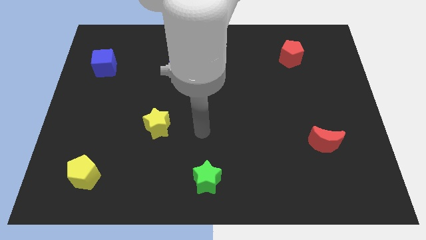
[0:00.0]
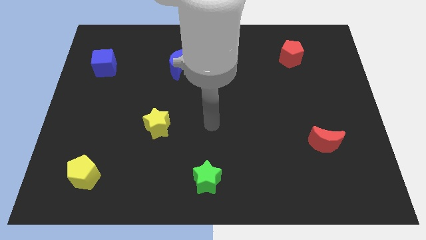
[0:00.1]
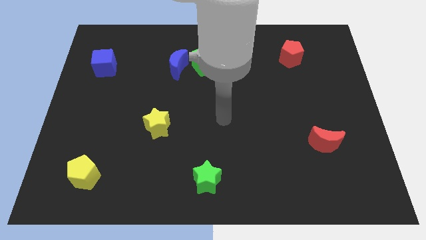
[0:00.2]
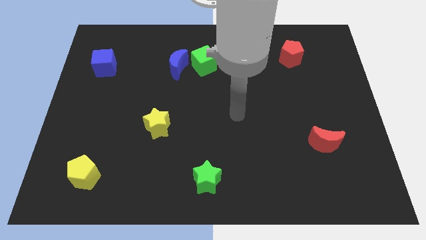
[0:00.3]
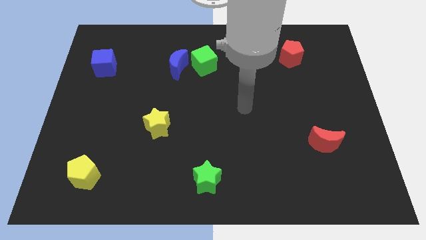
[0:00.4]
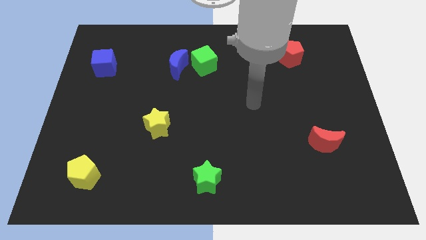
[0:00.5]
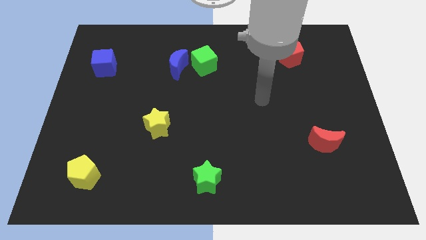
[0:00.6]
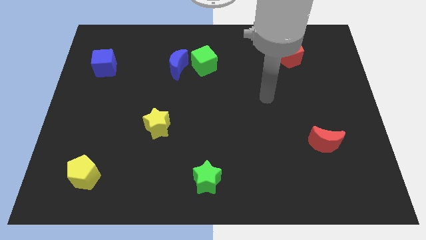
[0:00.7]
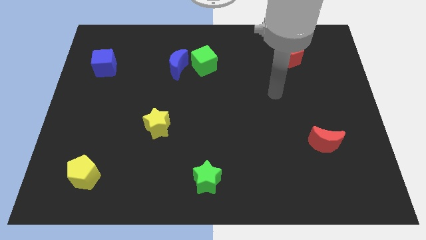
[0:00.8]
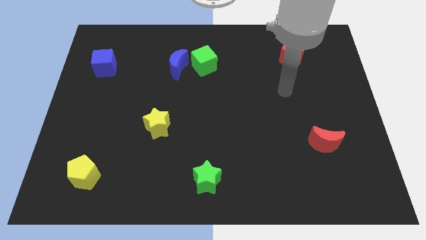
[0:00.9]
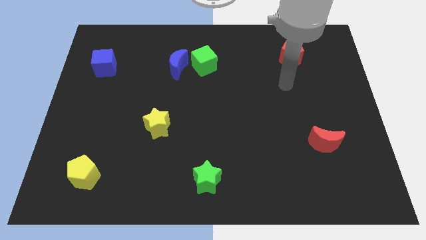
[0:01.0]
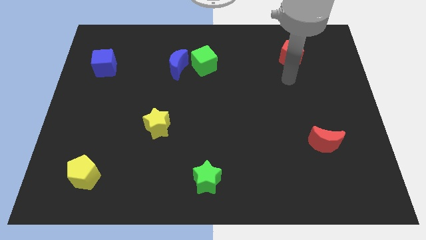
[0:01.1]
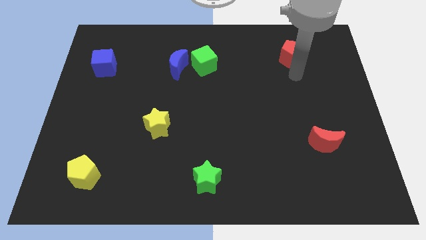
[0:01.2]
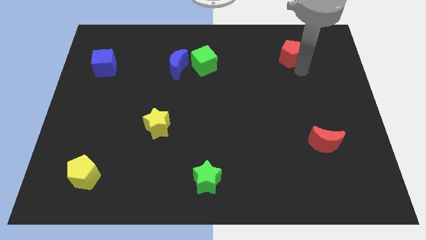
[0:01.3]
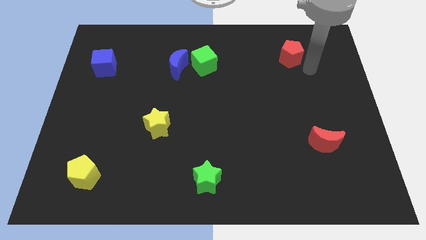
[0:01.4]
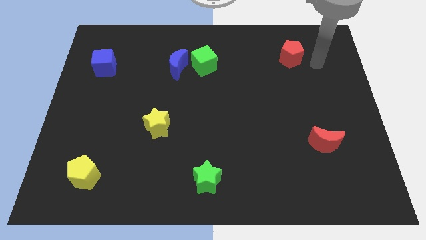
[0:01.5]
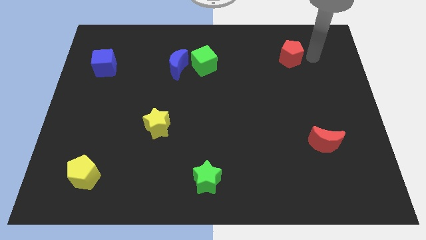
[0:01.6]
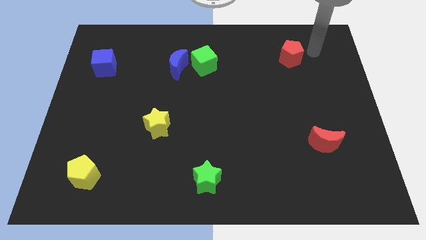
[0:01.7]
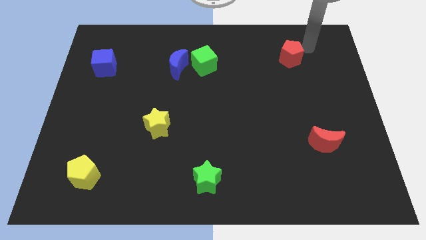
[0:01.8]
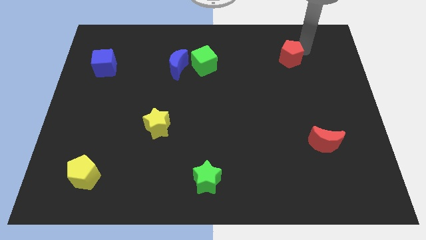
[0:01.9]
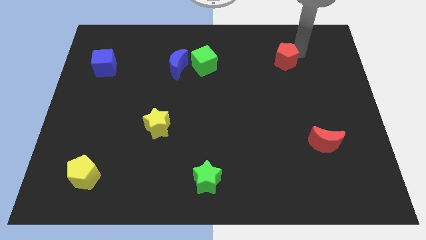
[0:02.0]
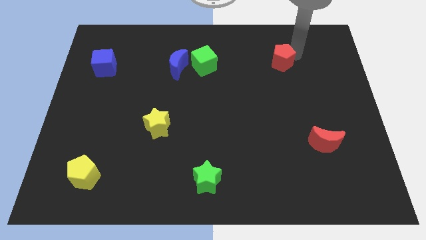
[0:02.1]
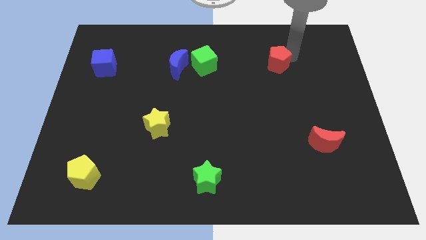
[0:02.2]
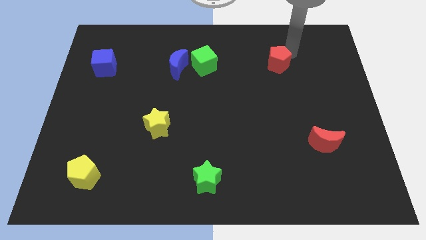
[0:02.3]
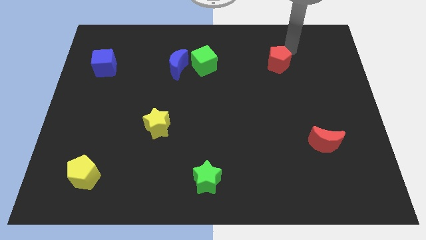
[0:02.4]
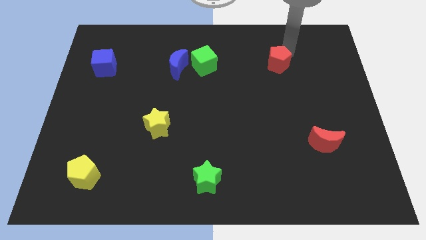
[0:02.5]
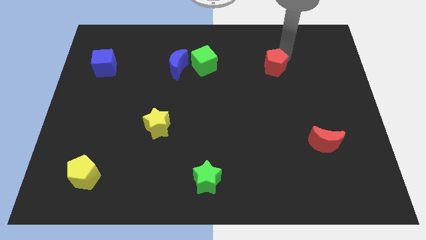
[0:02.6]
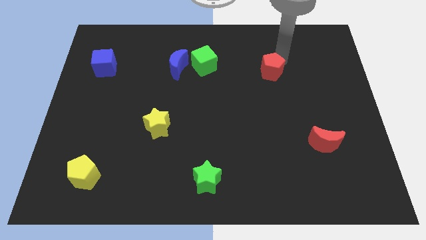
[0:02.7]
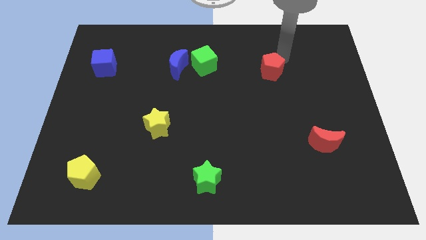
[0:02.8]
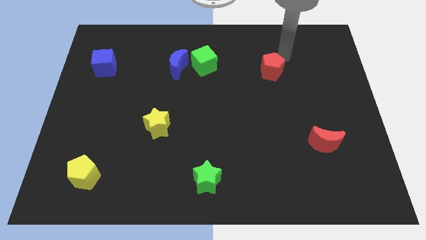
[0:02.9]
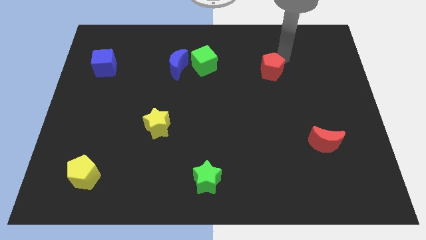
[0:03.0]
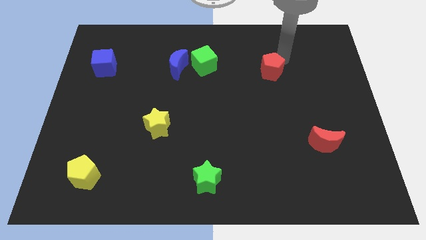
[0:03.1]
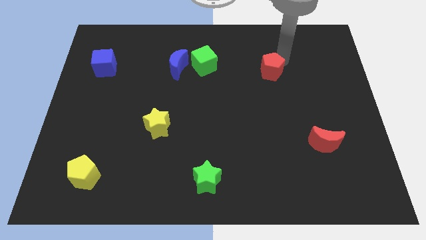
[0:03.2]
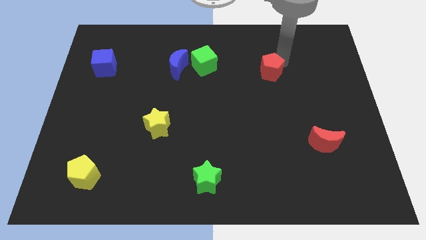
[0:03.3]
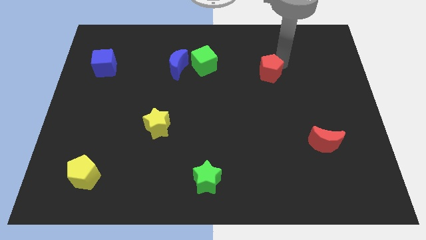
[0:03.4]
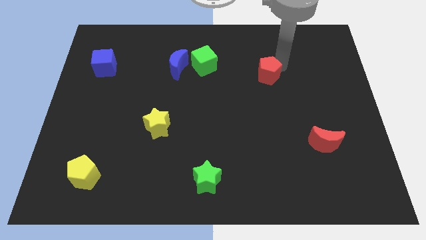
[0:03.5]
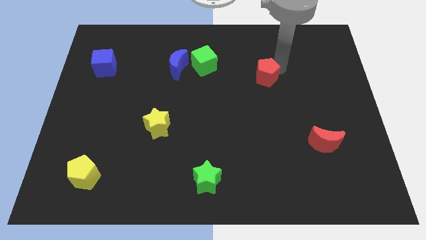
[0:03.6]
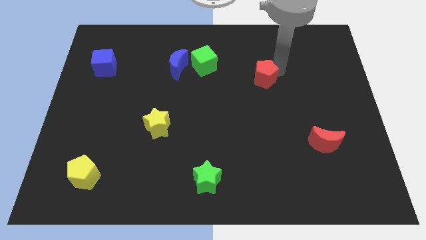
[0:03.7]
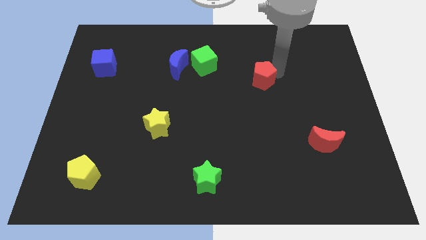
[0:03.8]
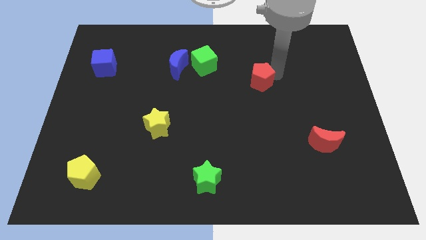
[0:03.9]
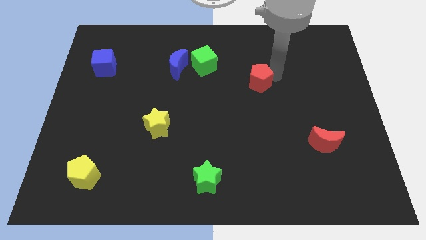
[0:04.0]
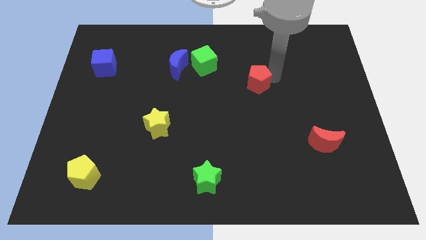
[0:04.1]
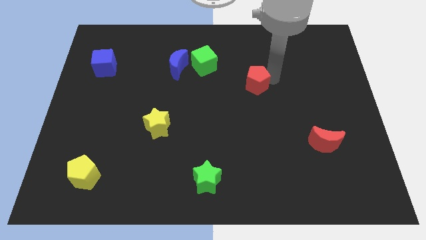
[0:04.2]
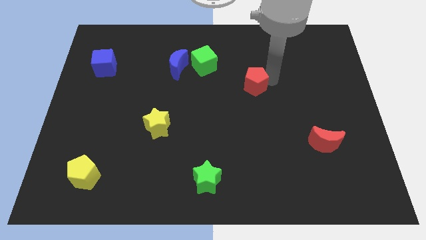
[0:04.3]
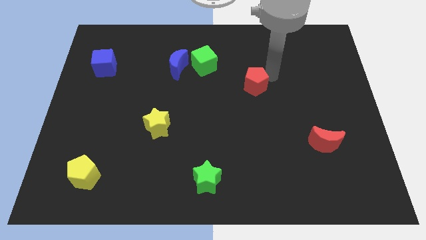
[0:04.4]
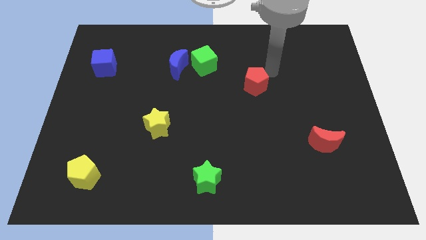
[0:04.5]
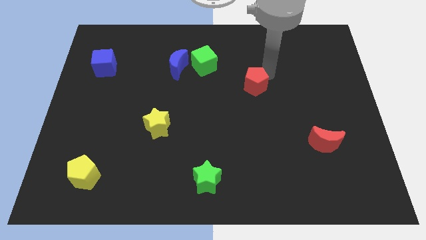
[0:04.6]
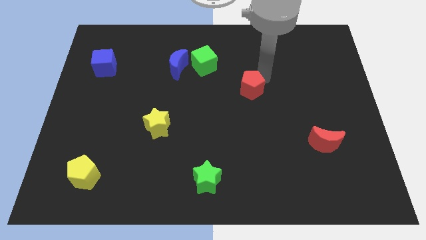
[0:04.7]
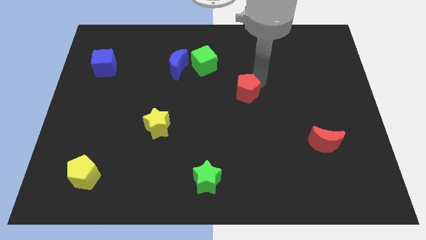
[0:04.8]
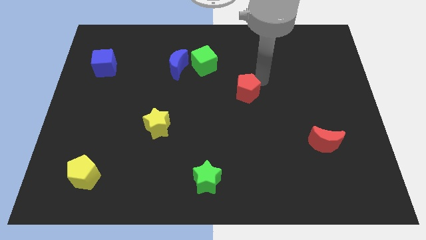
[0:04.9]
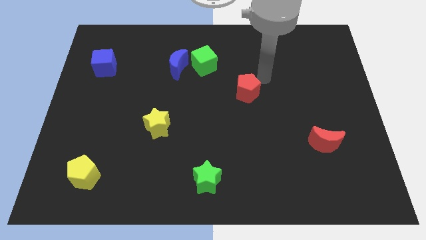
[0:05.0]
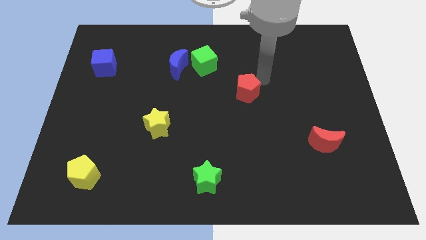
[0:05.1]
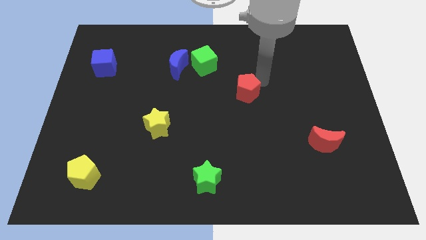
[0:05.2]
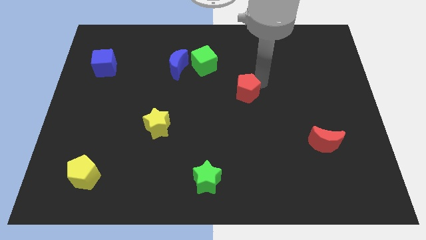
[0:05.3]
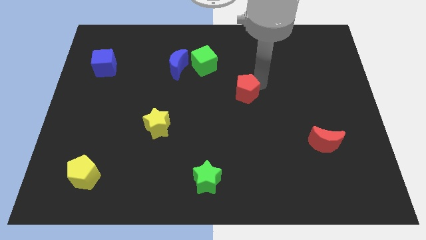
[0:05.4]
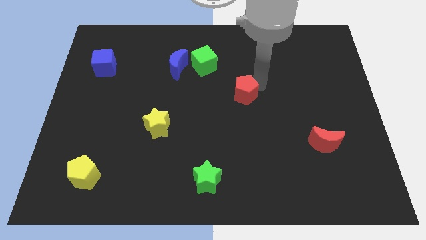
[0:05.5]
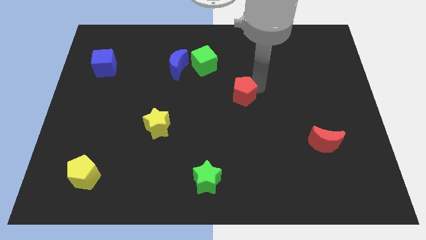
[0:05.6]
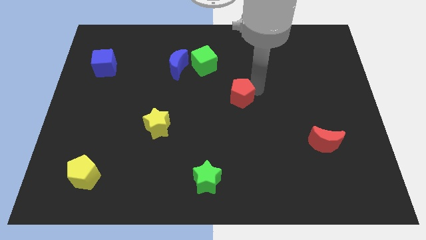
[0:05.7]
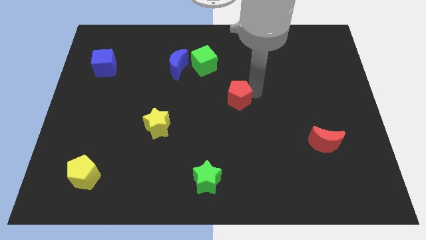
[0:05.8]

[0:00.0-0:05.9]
move the red pentagon down and then left

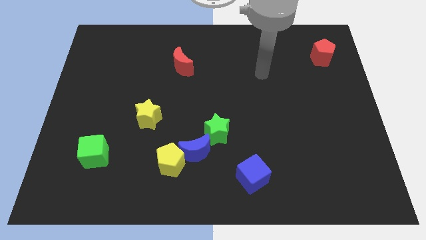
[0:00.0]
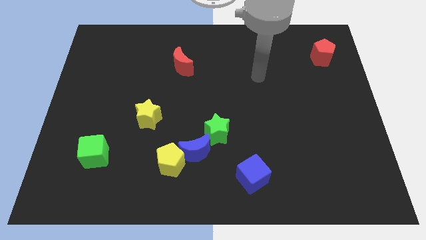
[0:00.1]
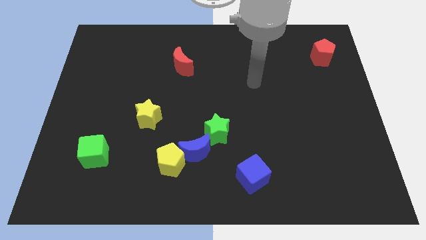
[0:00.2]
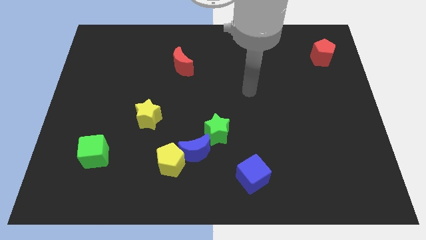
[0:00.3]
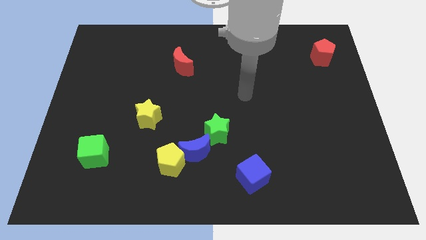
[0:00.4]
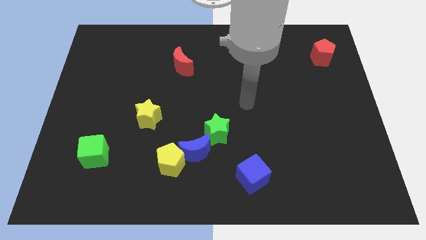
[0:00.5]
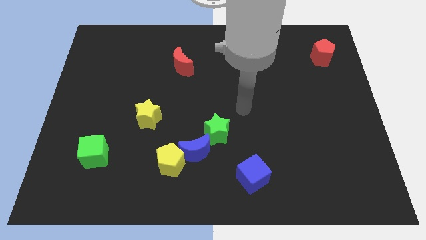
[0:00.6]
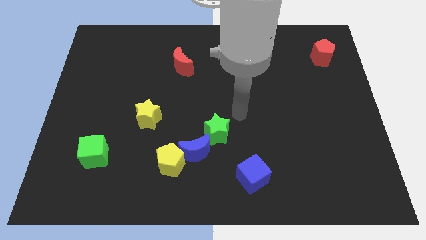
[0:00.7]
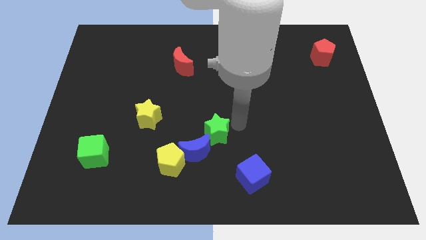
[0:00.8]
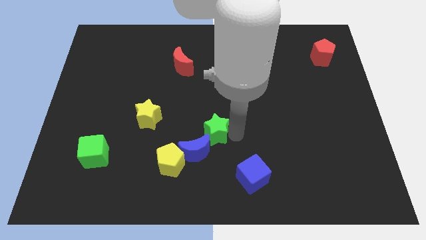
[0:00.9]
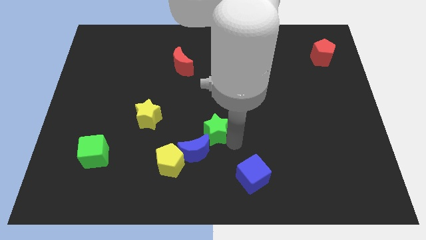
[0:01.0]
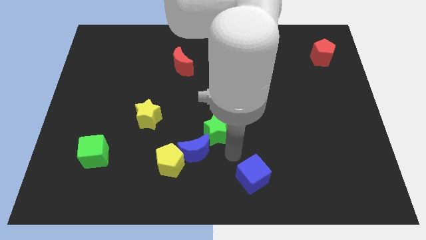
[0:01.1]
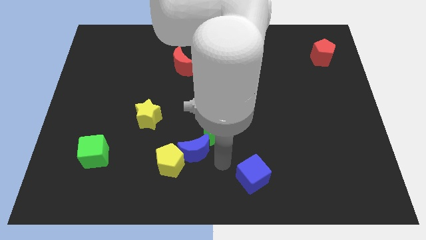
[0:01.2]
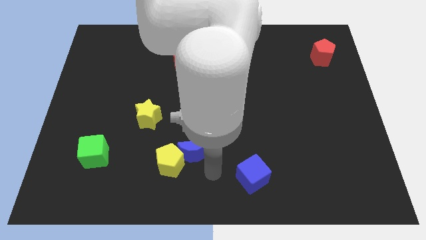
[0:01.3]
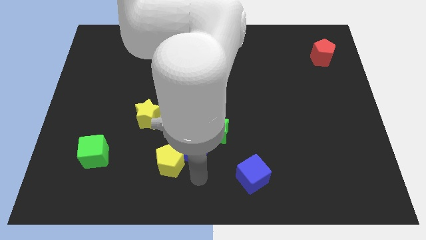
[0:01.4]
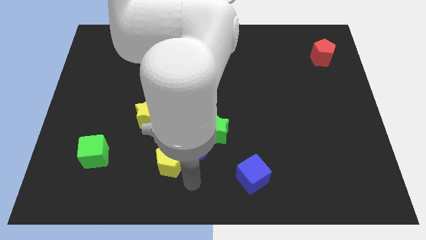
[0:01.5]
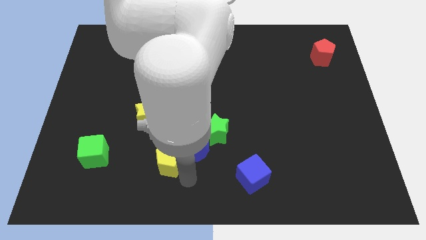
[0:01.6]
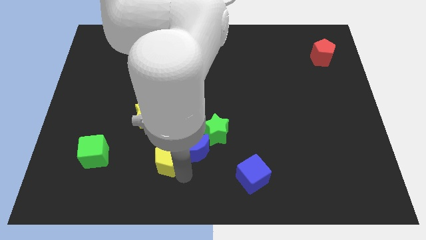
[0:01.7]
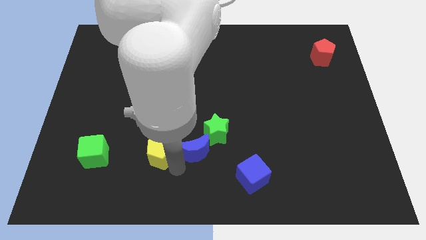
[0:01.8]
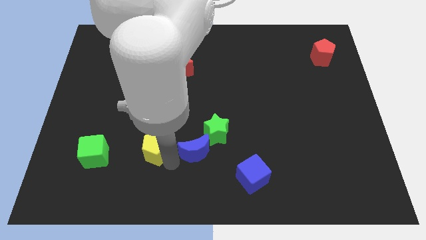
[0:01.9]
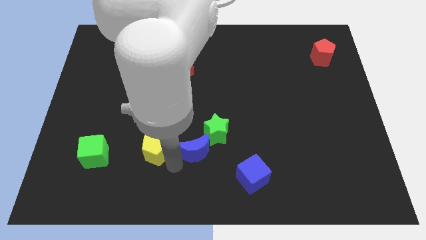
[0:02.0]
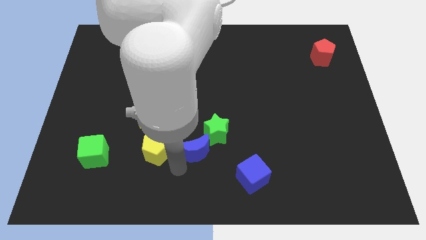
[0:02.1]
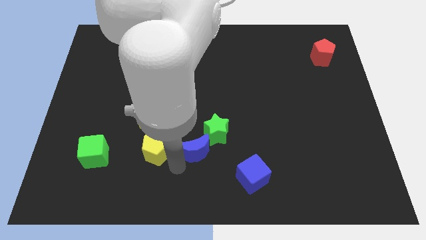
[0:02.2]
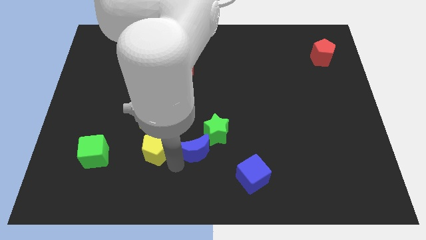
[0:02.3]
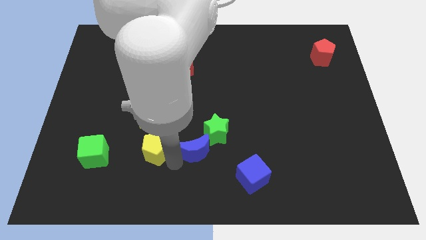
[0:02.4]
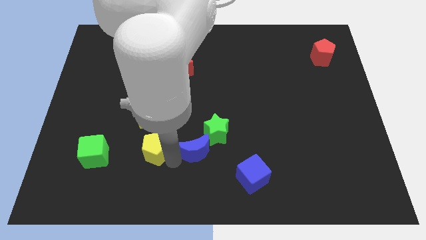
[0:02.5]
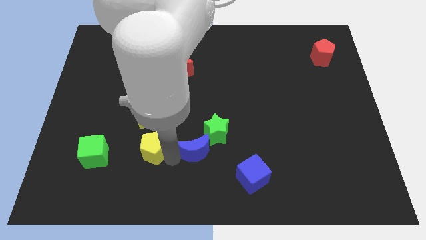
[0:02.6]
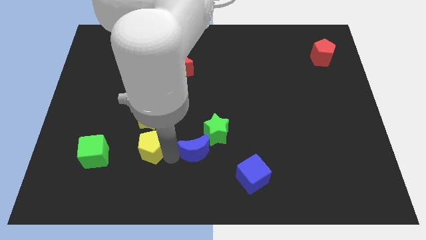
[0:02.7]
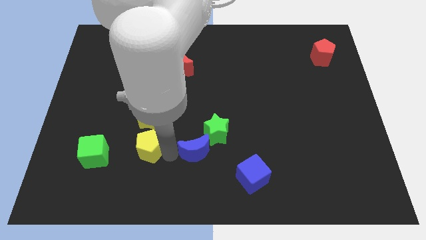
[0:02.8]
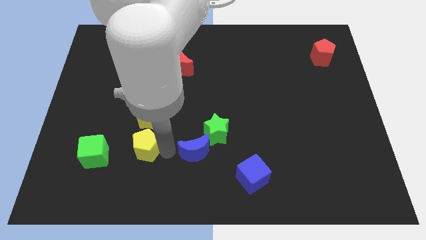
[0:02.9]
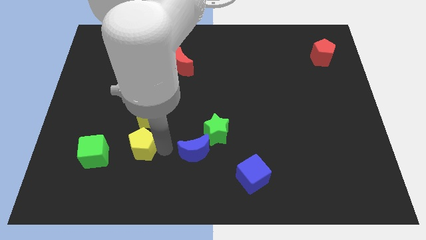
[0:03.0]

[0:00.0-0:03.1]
move the yellow pentagon a little up and left
